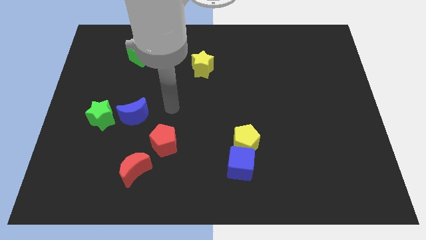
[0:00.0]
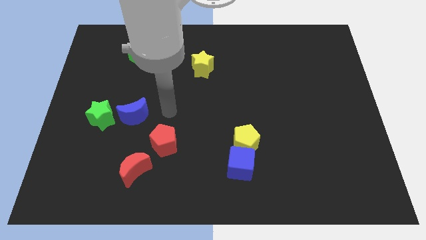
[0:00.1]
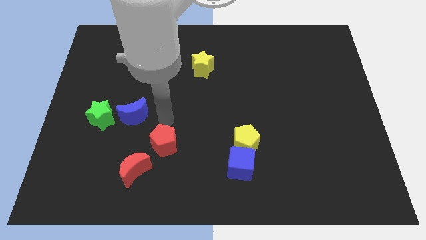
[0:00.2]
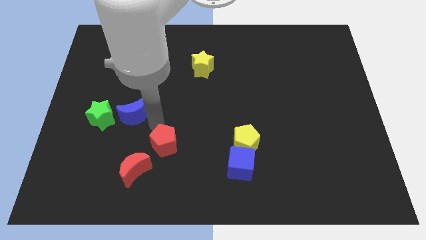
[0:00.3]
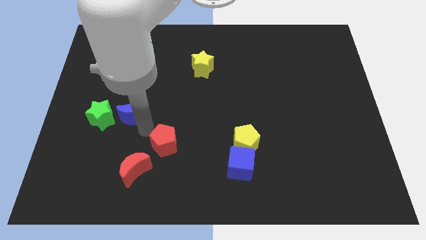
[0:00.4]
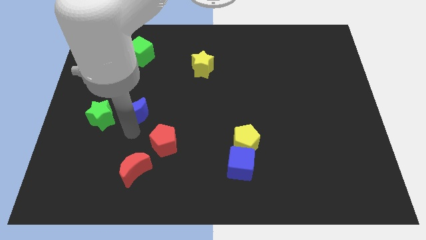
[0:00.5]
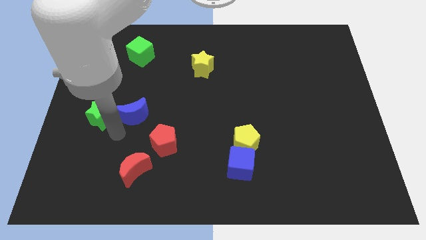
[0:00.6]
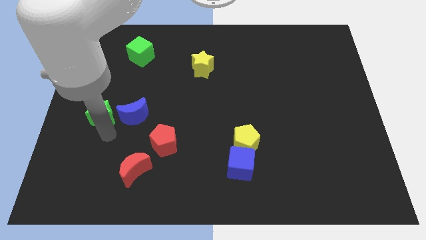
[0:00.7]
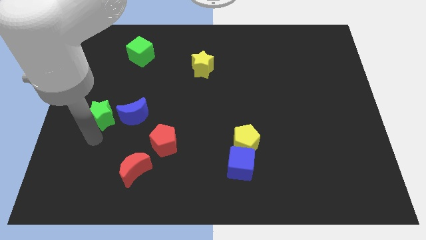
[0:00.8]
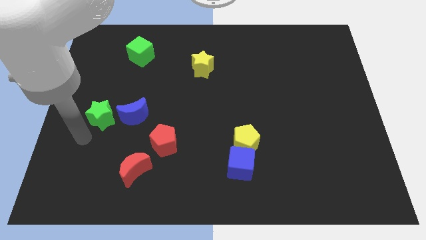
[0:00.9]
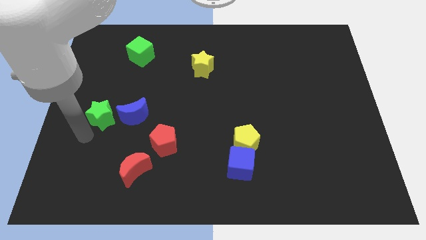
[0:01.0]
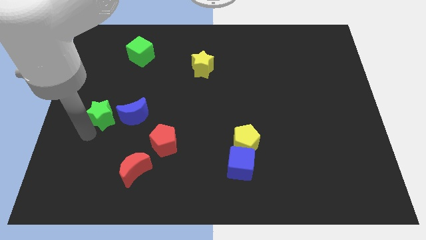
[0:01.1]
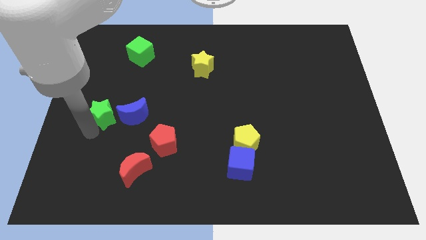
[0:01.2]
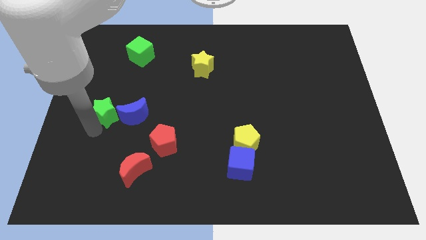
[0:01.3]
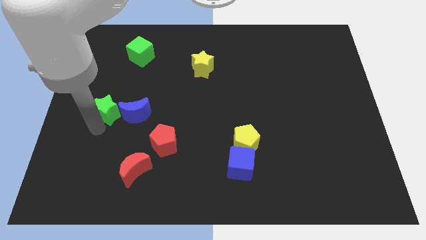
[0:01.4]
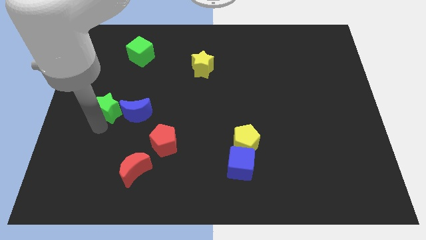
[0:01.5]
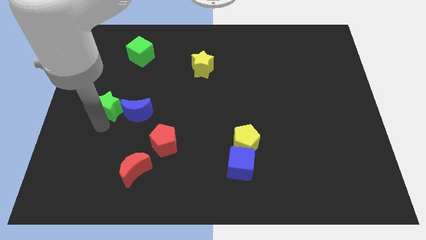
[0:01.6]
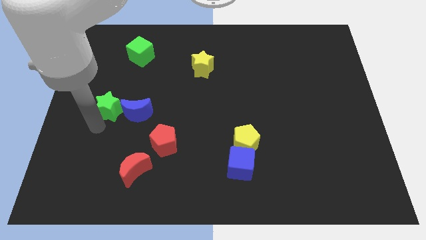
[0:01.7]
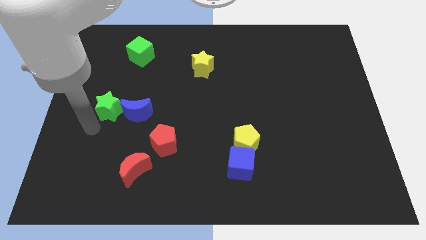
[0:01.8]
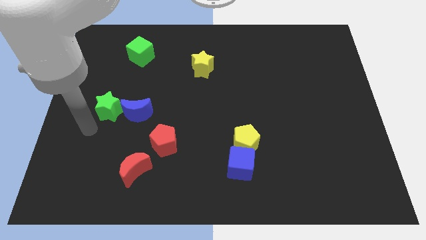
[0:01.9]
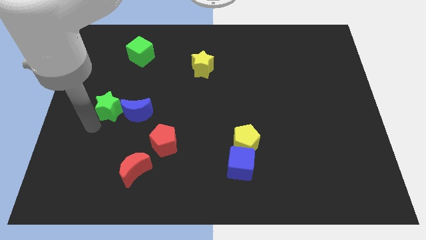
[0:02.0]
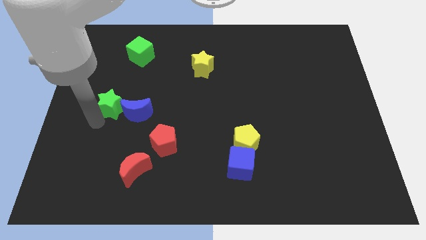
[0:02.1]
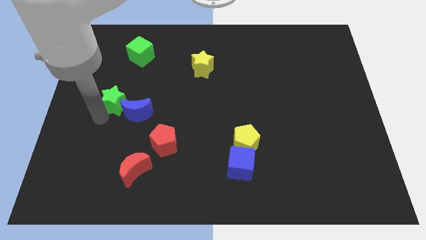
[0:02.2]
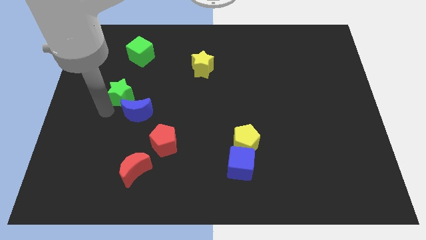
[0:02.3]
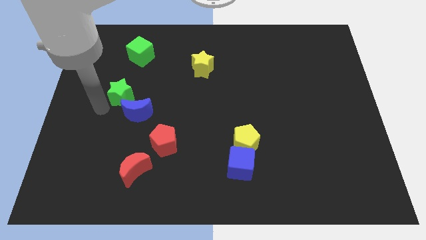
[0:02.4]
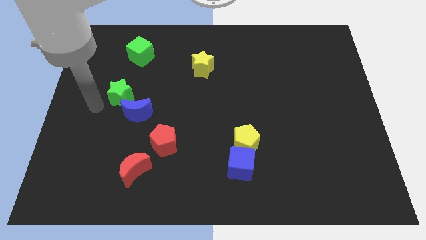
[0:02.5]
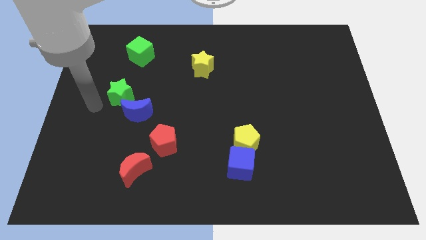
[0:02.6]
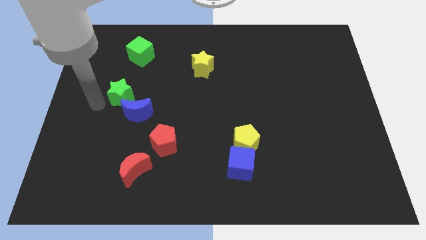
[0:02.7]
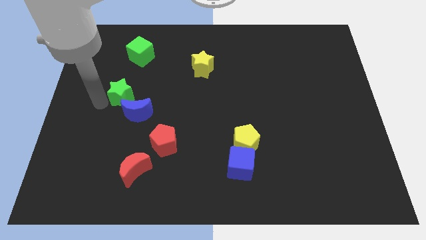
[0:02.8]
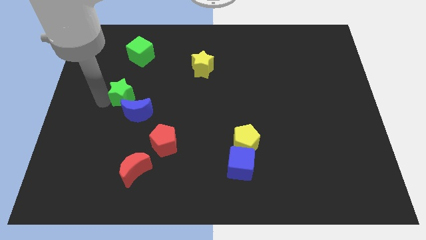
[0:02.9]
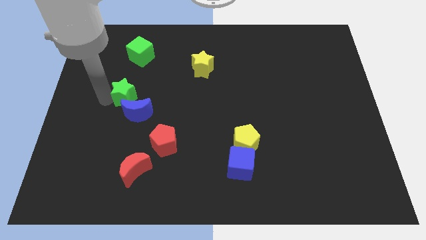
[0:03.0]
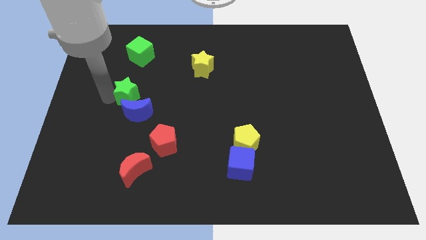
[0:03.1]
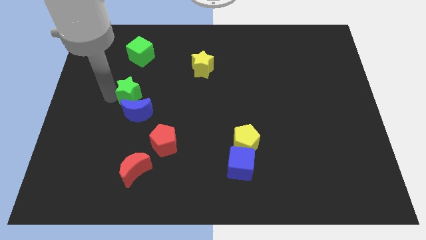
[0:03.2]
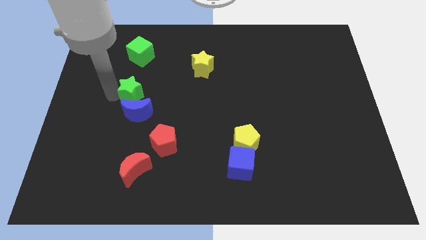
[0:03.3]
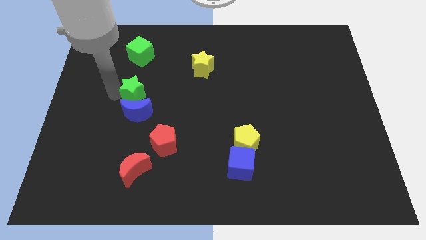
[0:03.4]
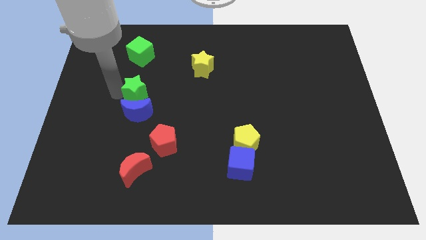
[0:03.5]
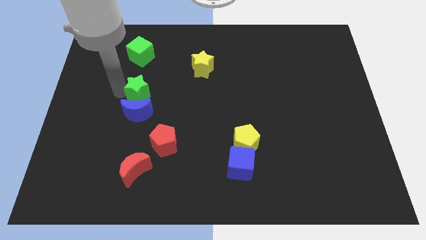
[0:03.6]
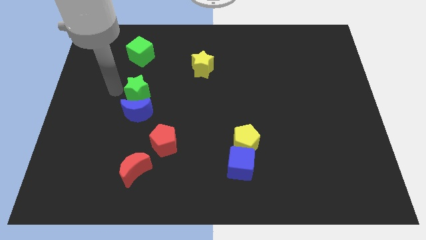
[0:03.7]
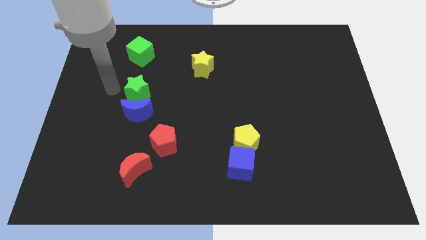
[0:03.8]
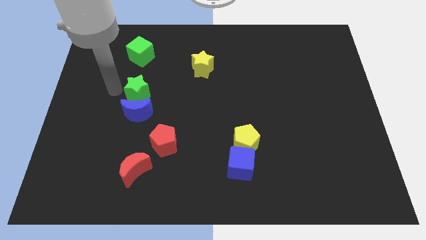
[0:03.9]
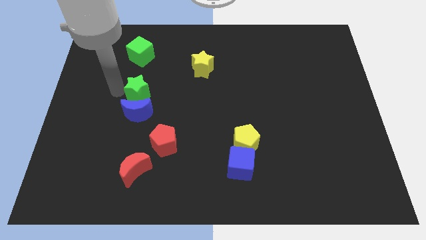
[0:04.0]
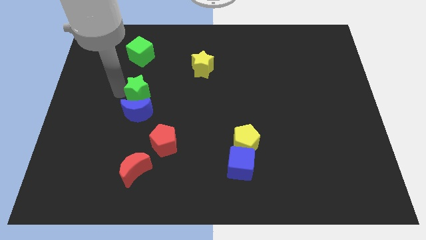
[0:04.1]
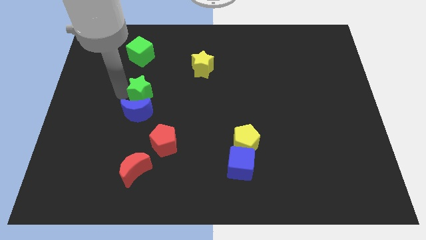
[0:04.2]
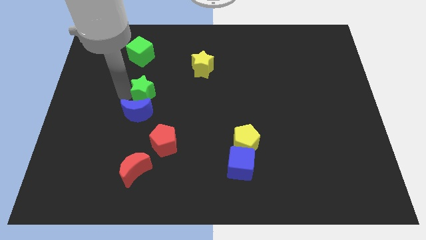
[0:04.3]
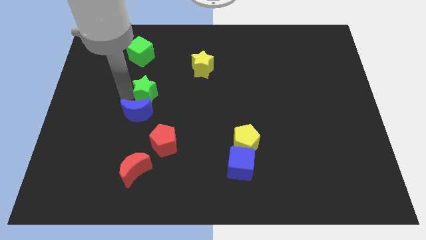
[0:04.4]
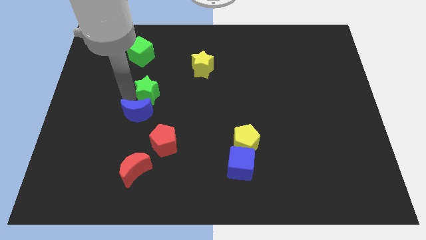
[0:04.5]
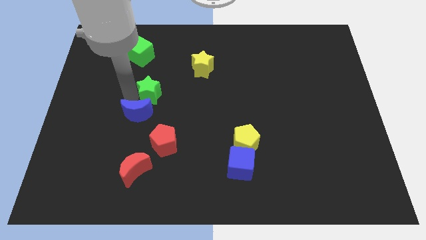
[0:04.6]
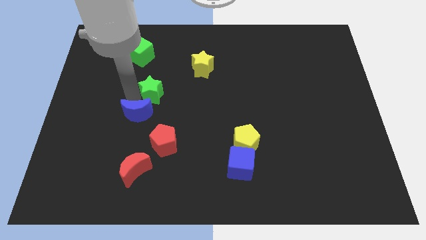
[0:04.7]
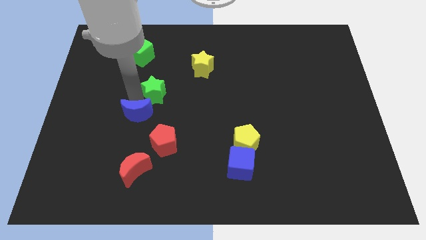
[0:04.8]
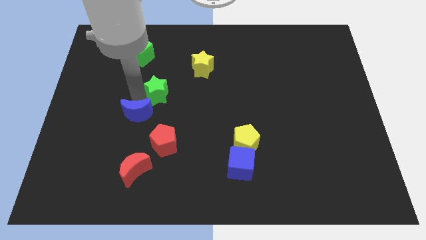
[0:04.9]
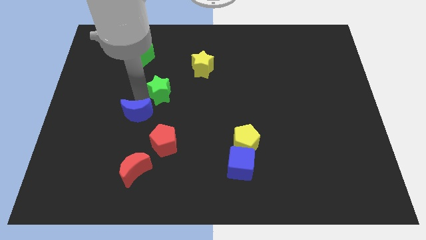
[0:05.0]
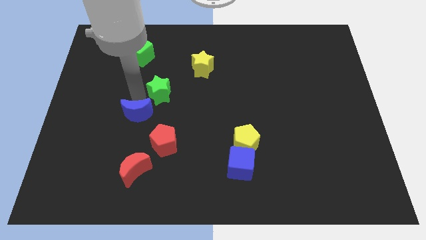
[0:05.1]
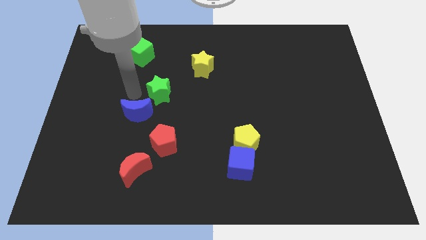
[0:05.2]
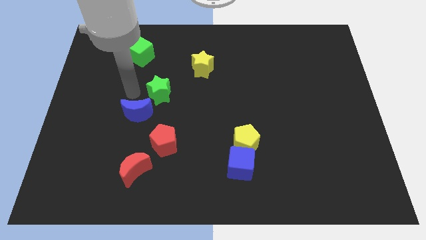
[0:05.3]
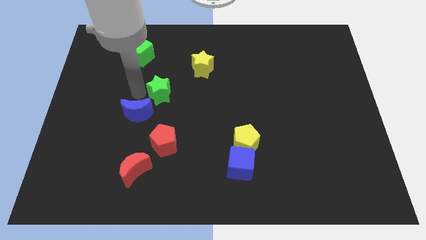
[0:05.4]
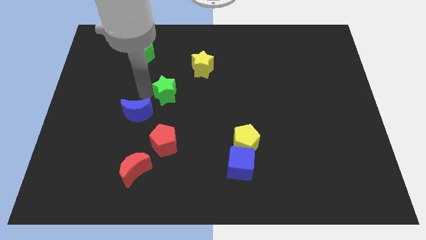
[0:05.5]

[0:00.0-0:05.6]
move the green star to the middle of the board
